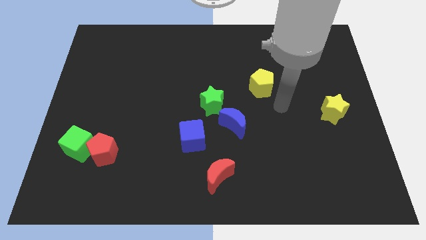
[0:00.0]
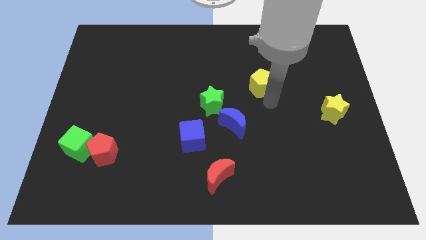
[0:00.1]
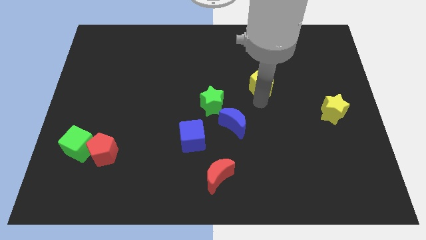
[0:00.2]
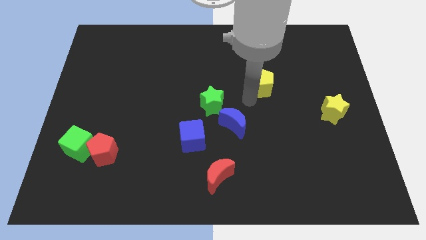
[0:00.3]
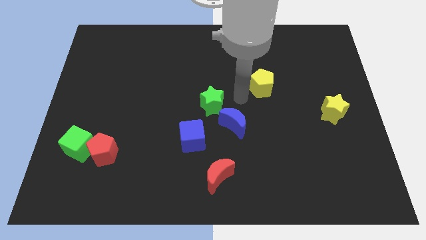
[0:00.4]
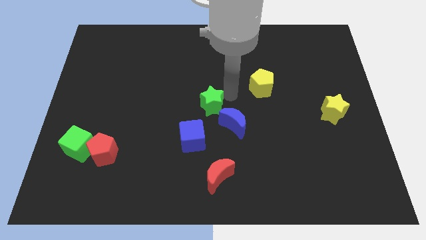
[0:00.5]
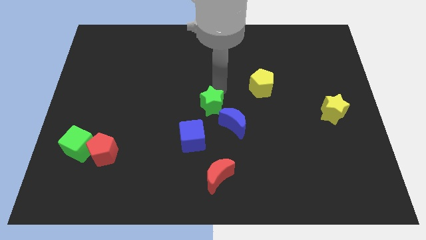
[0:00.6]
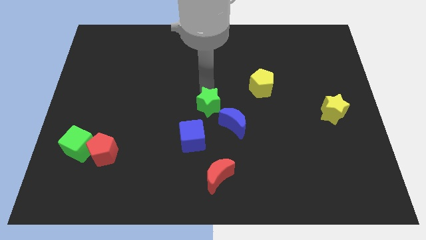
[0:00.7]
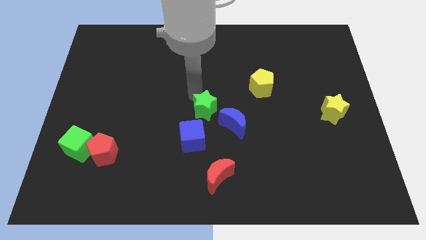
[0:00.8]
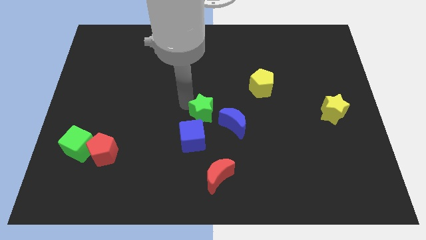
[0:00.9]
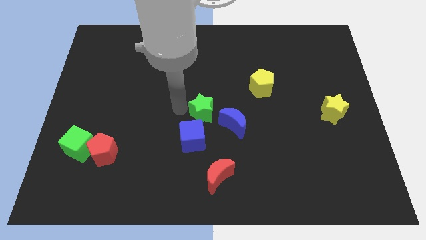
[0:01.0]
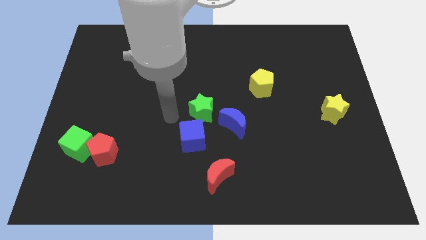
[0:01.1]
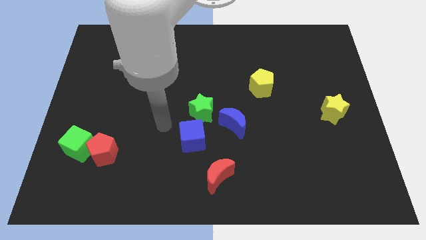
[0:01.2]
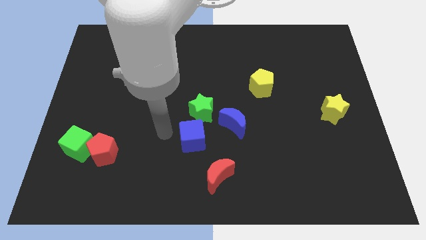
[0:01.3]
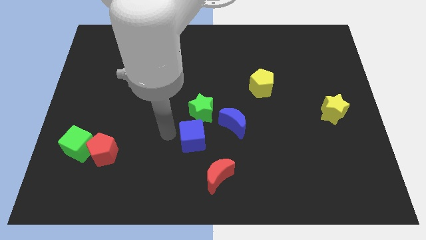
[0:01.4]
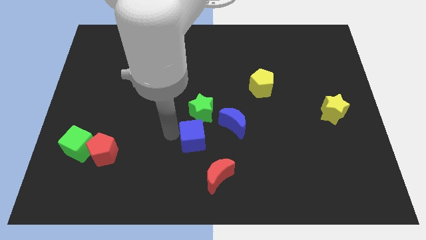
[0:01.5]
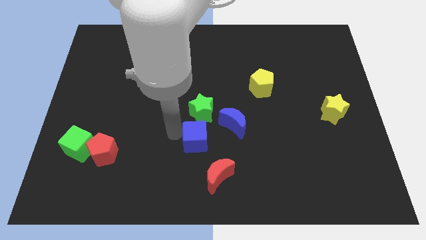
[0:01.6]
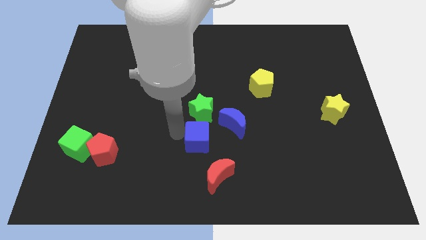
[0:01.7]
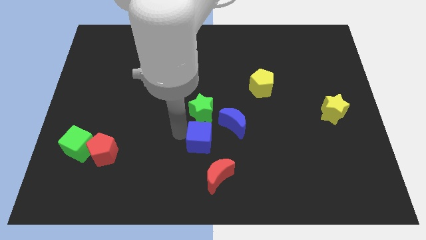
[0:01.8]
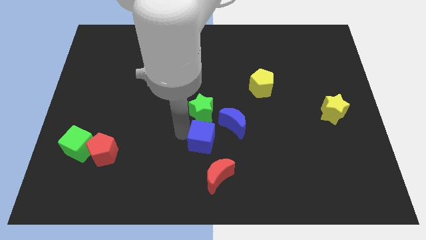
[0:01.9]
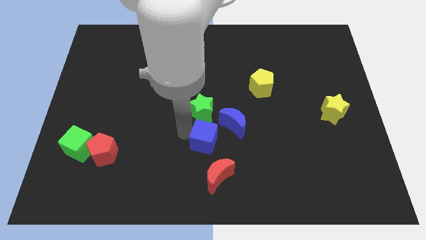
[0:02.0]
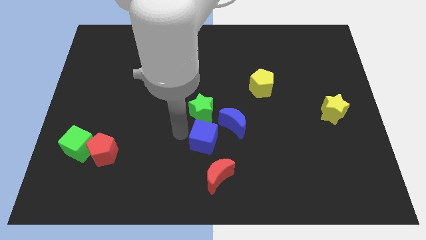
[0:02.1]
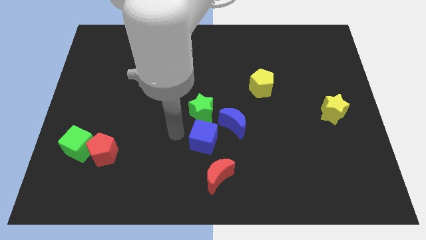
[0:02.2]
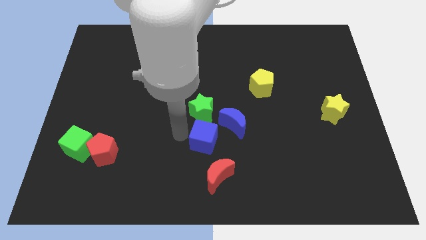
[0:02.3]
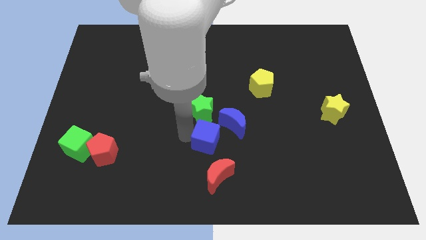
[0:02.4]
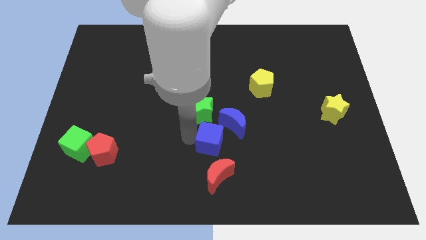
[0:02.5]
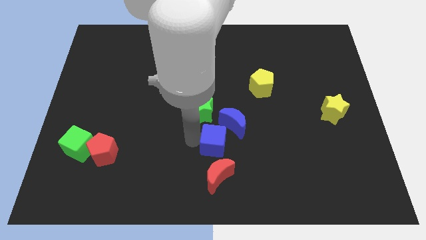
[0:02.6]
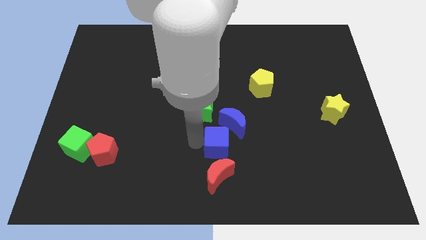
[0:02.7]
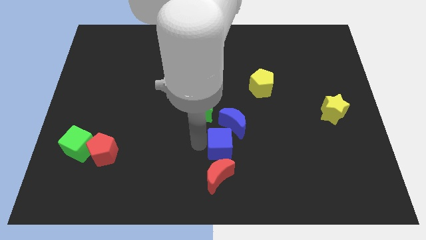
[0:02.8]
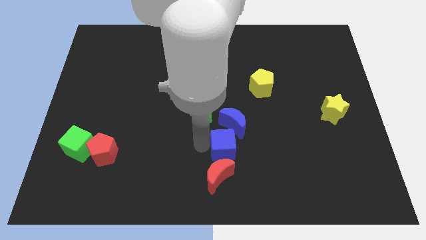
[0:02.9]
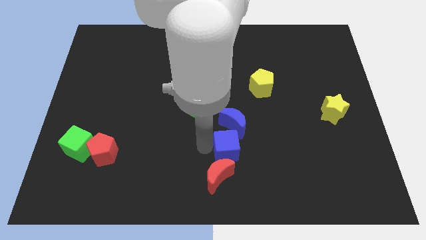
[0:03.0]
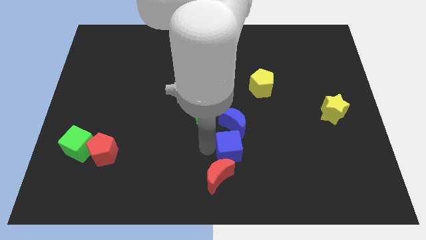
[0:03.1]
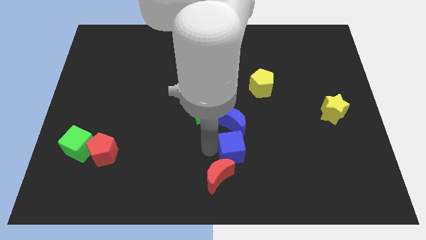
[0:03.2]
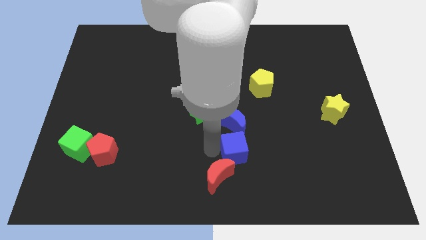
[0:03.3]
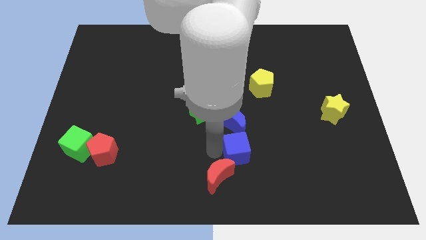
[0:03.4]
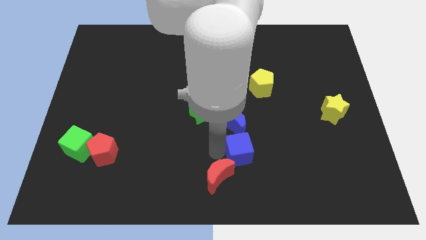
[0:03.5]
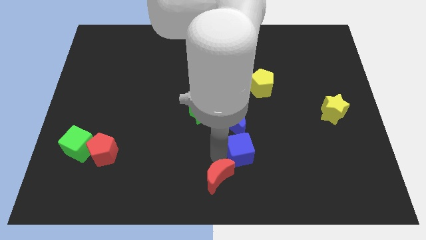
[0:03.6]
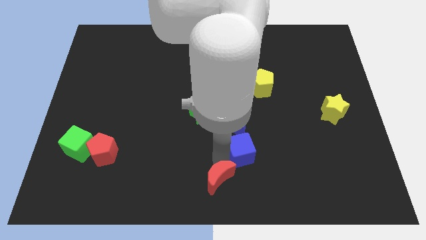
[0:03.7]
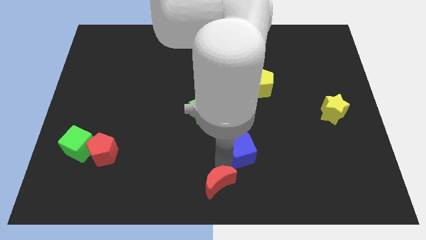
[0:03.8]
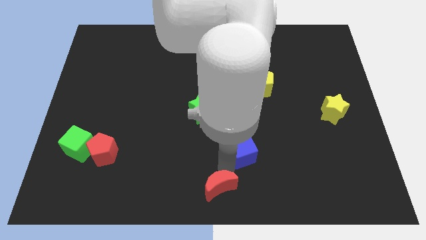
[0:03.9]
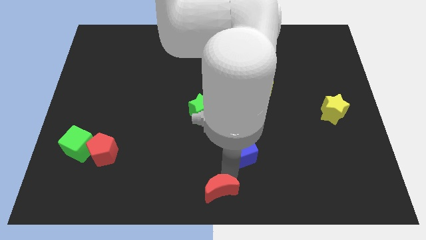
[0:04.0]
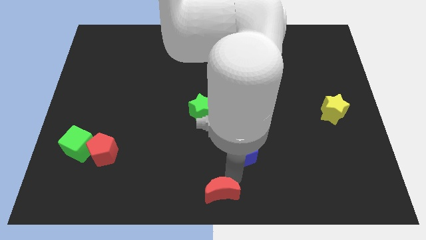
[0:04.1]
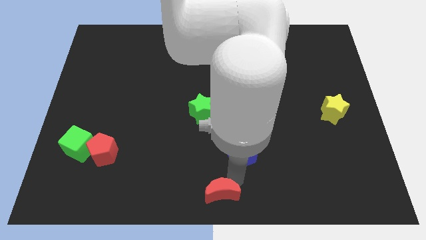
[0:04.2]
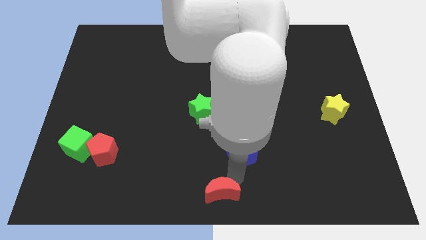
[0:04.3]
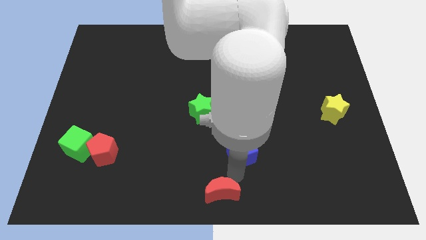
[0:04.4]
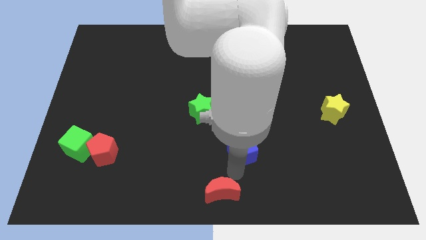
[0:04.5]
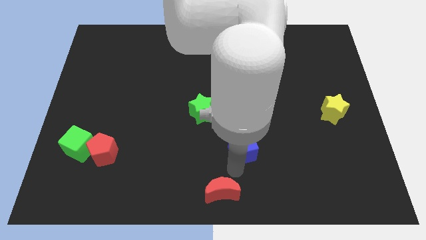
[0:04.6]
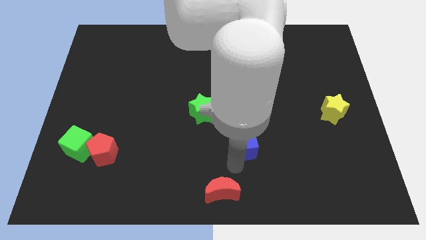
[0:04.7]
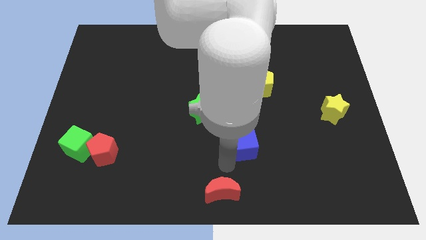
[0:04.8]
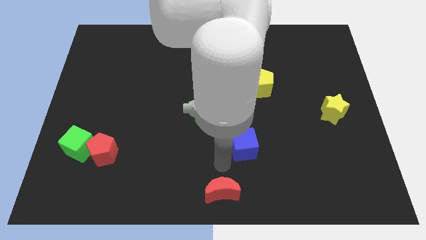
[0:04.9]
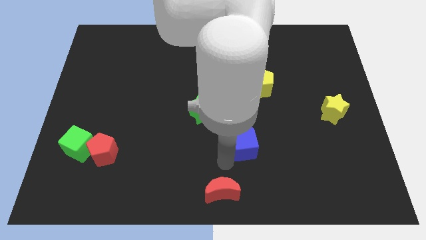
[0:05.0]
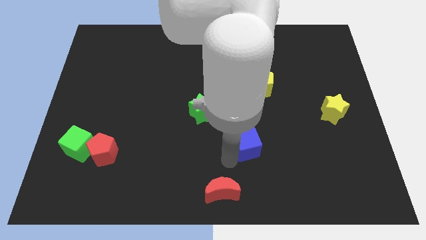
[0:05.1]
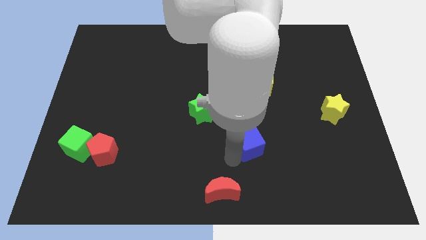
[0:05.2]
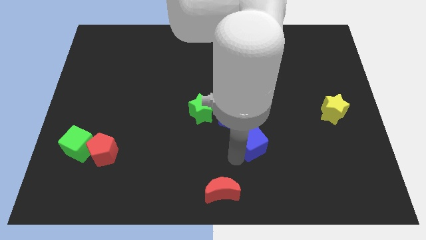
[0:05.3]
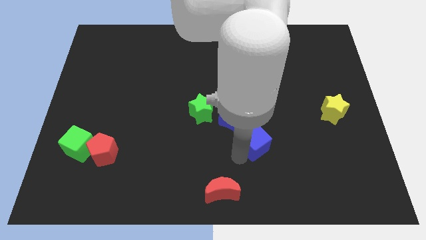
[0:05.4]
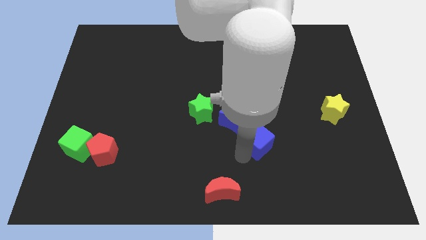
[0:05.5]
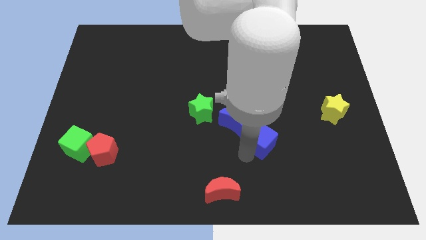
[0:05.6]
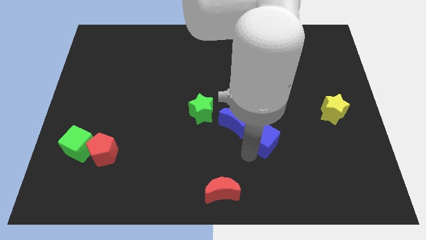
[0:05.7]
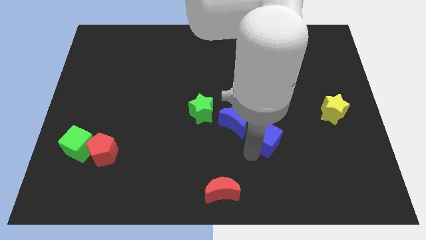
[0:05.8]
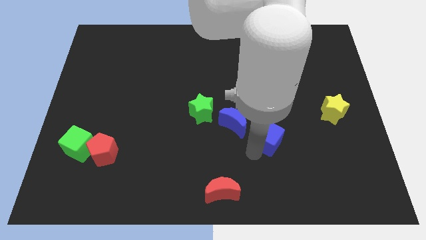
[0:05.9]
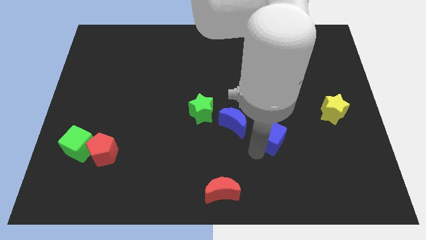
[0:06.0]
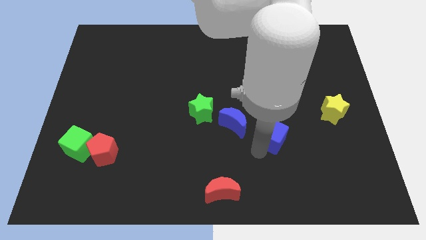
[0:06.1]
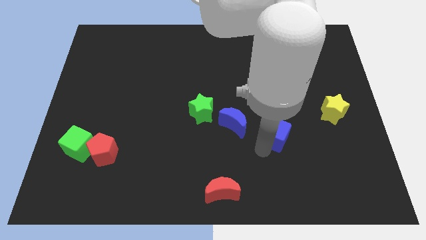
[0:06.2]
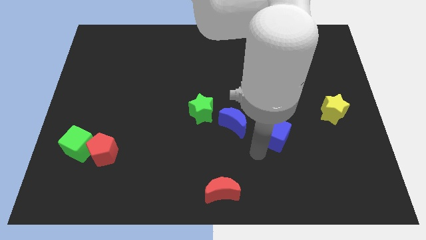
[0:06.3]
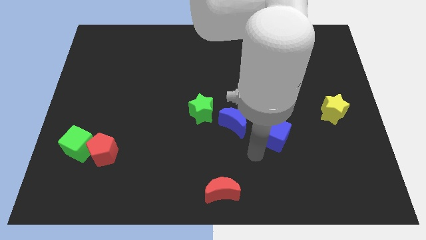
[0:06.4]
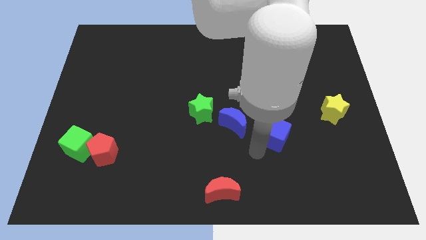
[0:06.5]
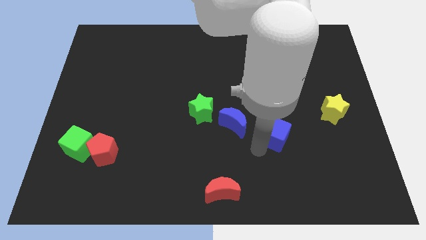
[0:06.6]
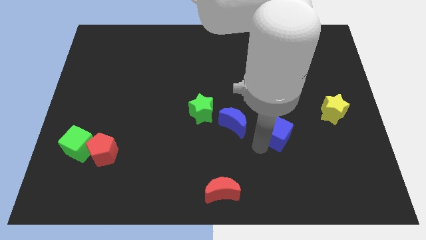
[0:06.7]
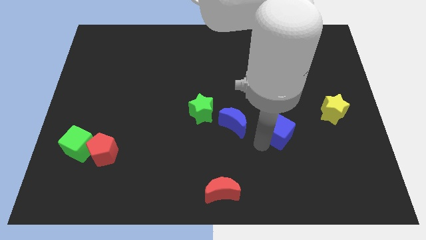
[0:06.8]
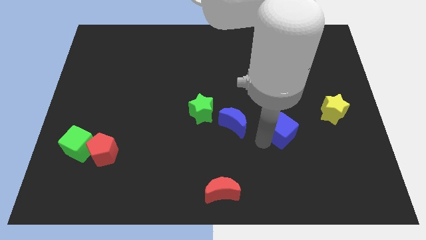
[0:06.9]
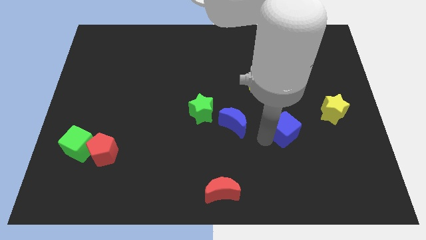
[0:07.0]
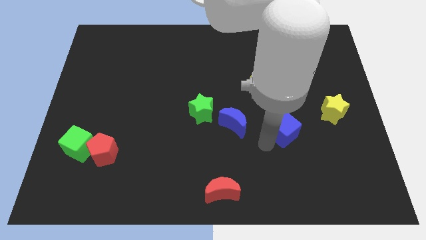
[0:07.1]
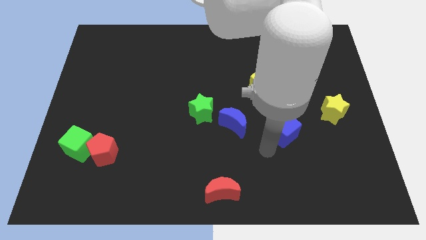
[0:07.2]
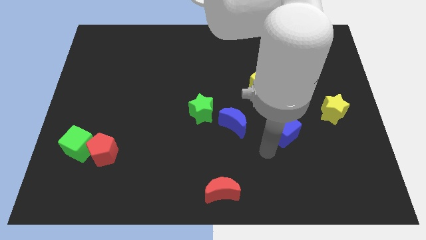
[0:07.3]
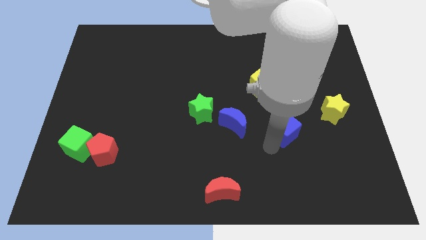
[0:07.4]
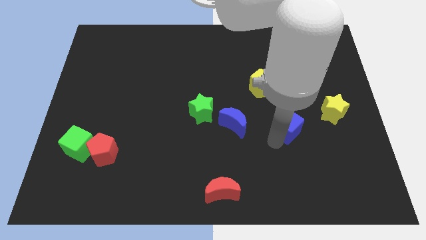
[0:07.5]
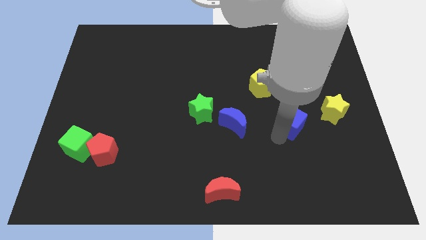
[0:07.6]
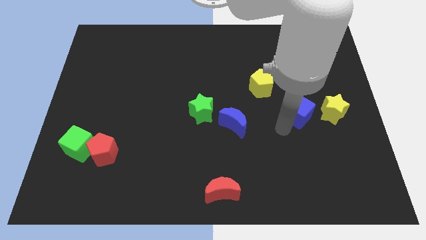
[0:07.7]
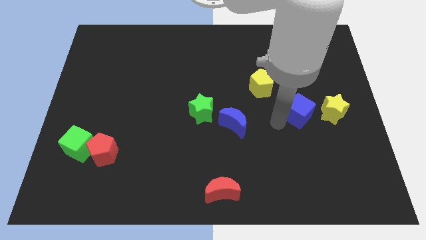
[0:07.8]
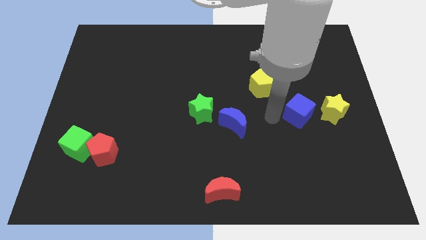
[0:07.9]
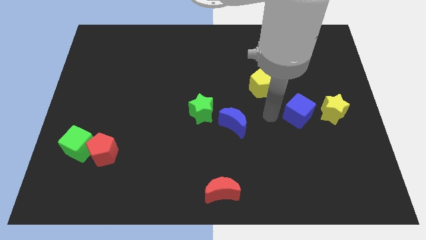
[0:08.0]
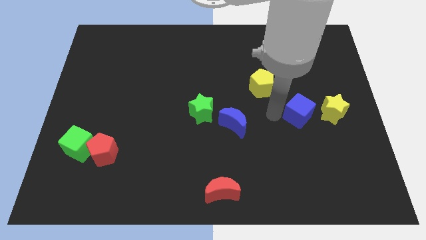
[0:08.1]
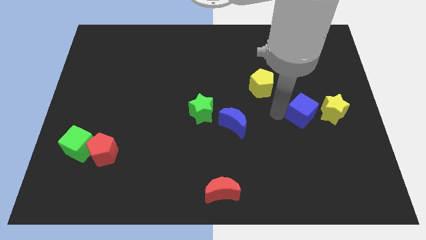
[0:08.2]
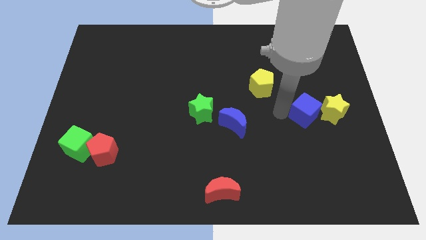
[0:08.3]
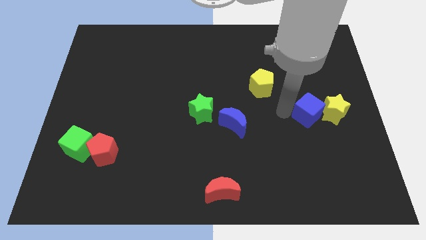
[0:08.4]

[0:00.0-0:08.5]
push the blue cube to the yellow star
